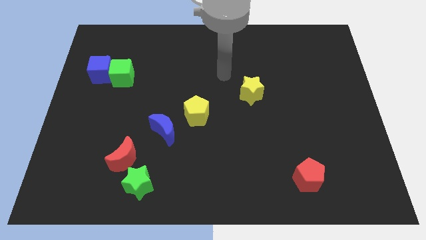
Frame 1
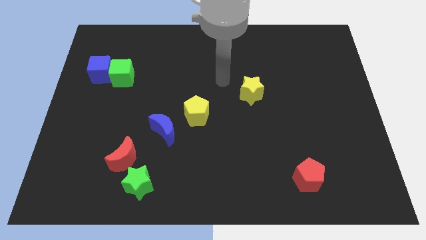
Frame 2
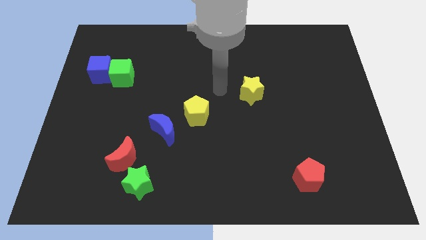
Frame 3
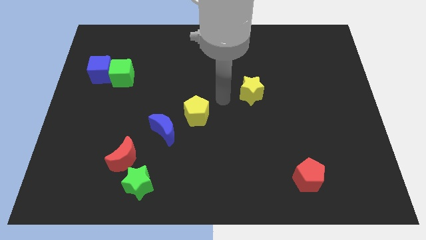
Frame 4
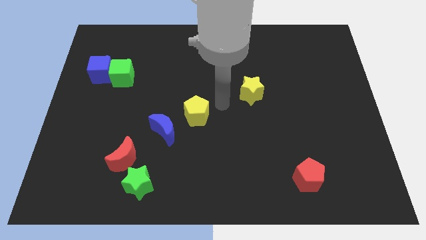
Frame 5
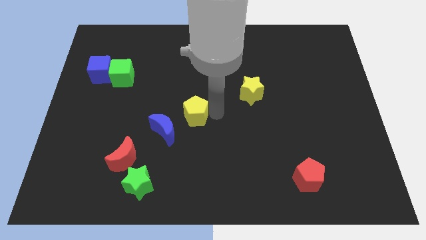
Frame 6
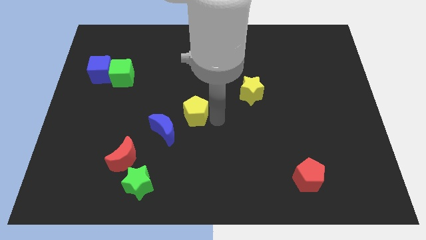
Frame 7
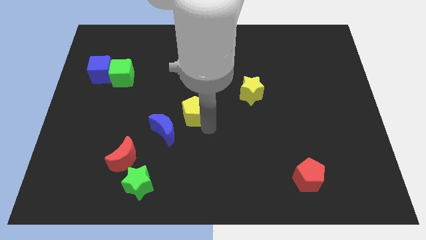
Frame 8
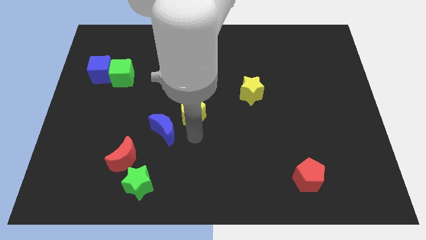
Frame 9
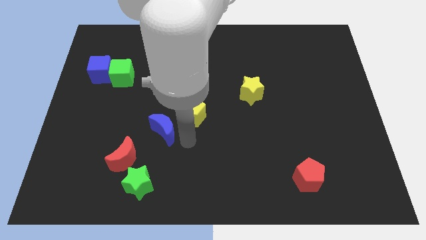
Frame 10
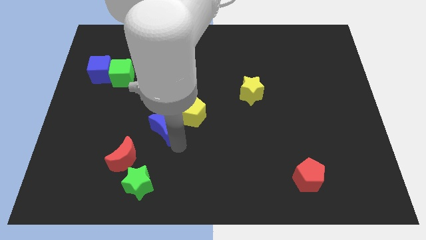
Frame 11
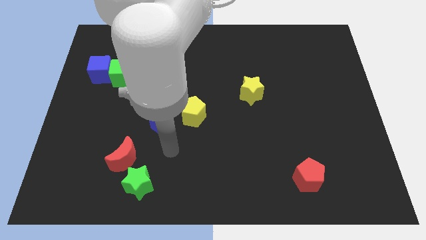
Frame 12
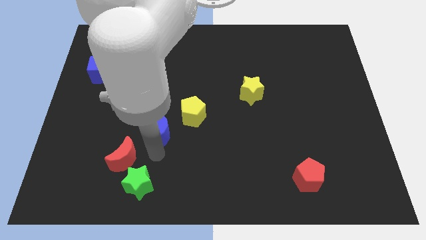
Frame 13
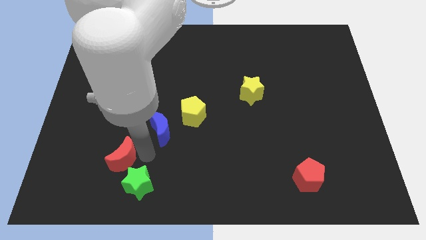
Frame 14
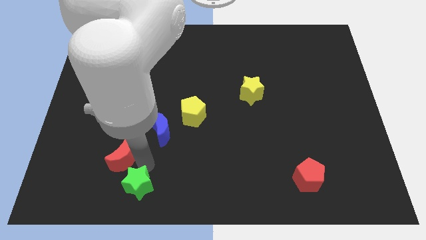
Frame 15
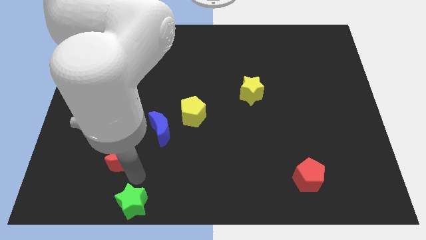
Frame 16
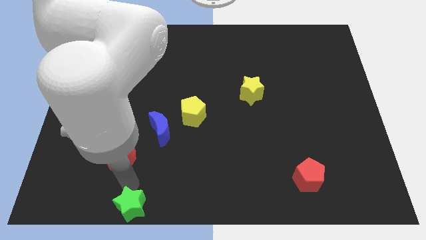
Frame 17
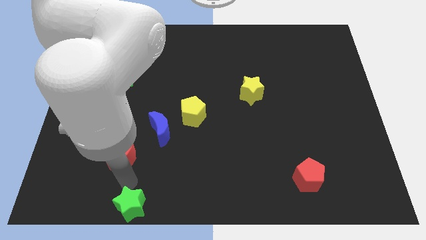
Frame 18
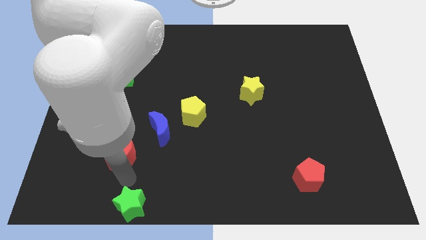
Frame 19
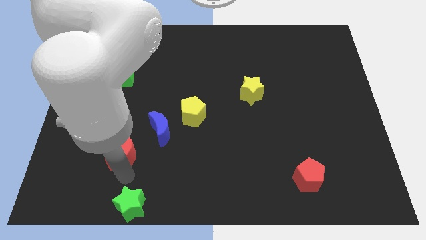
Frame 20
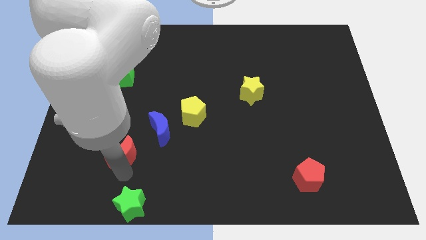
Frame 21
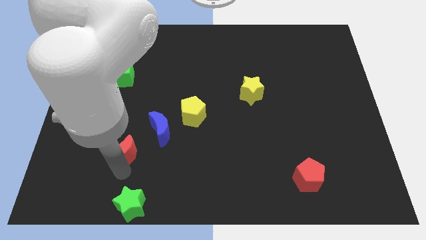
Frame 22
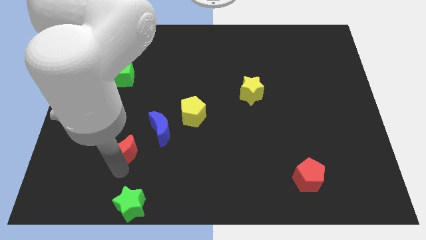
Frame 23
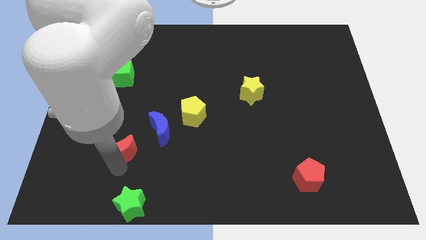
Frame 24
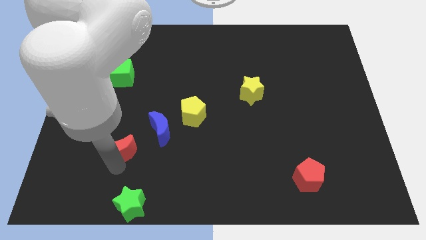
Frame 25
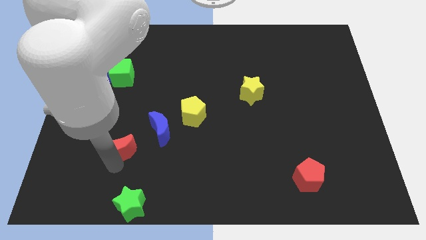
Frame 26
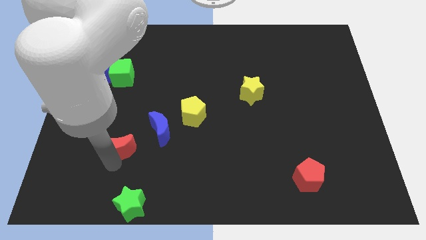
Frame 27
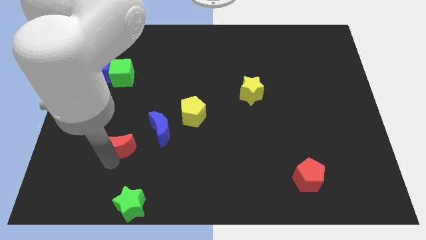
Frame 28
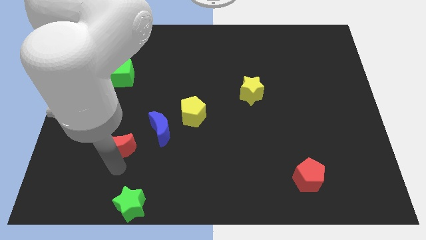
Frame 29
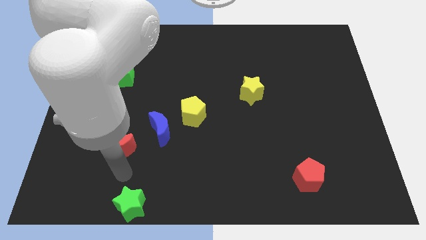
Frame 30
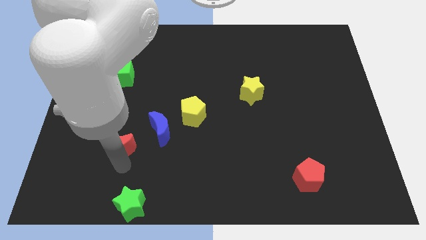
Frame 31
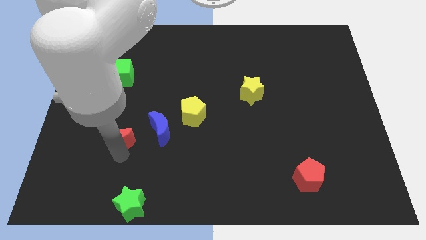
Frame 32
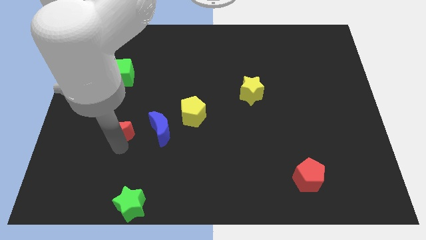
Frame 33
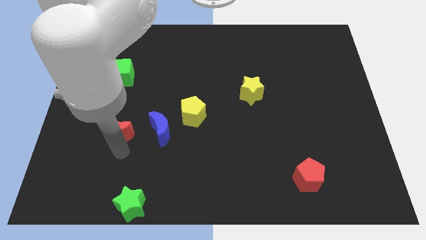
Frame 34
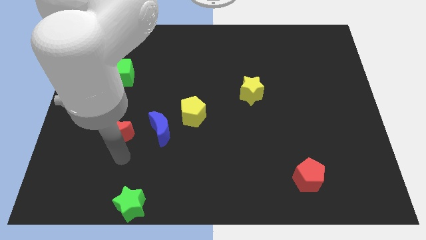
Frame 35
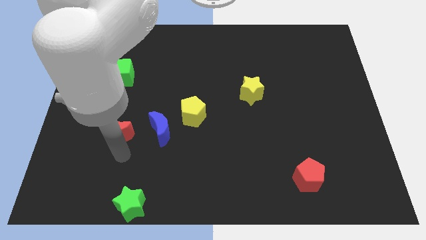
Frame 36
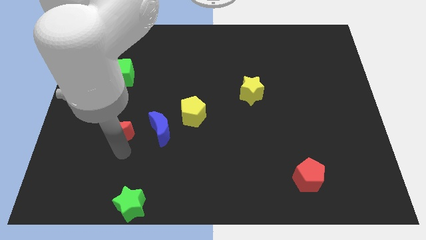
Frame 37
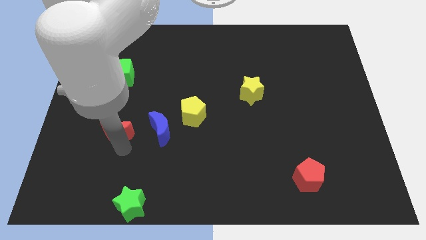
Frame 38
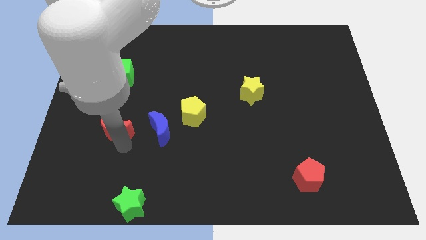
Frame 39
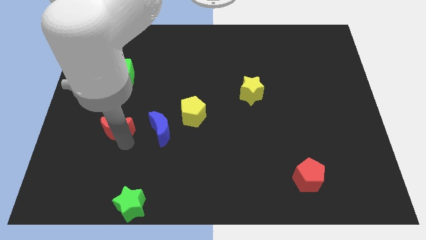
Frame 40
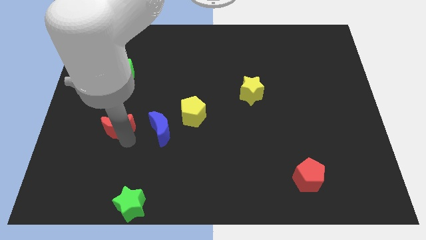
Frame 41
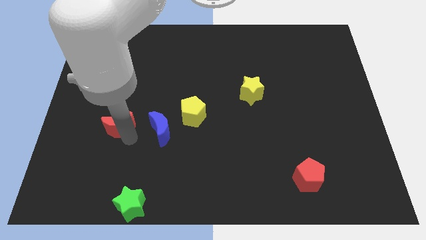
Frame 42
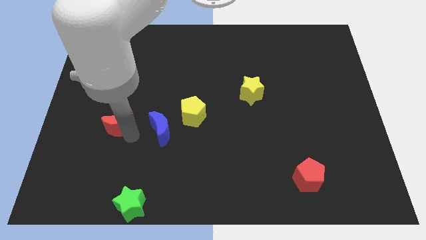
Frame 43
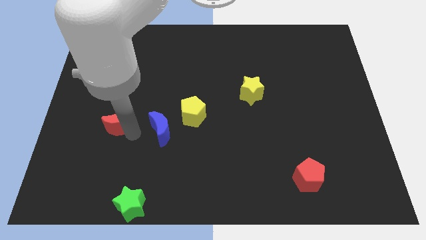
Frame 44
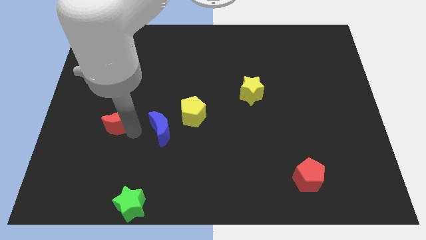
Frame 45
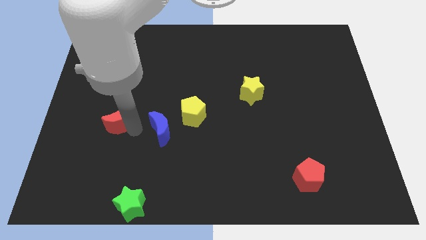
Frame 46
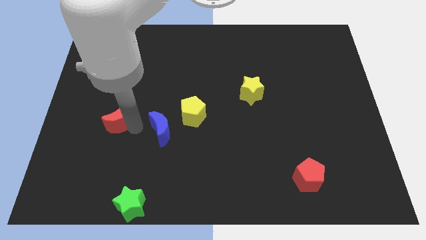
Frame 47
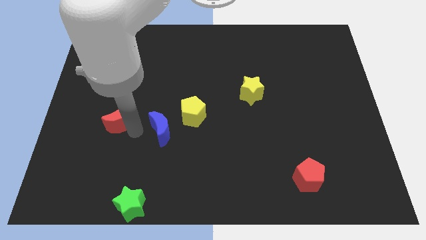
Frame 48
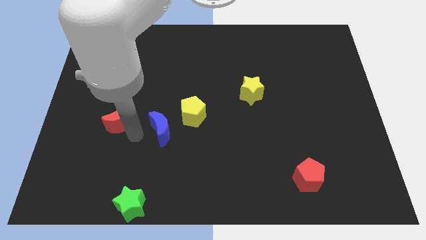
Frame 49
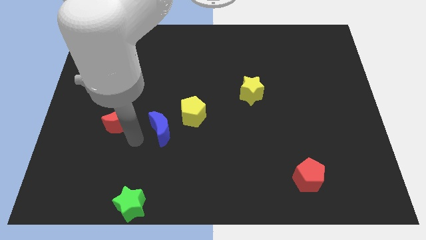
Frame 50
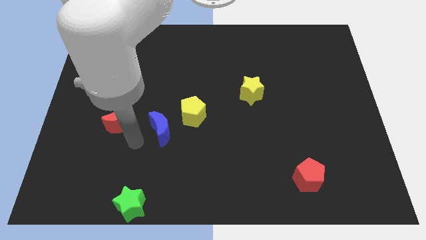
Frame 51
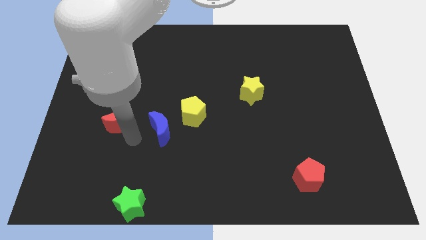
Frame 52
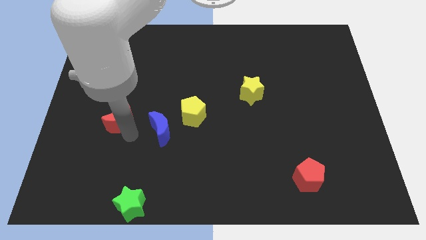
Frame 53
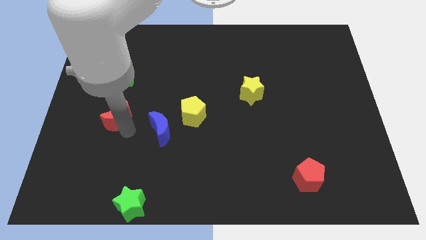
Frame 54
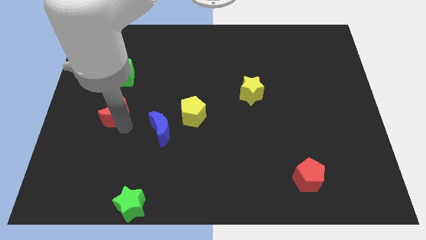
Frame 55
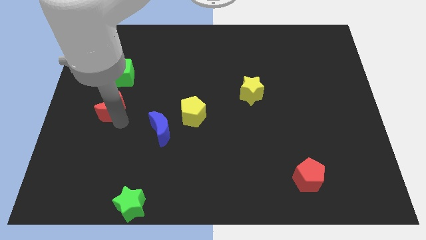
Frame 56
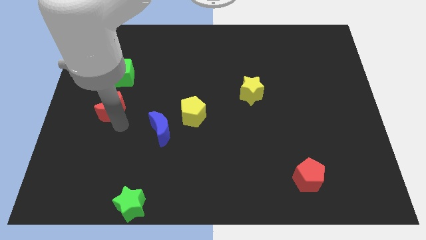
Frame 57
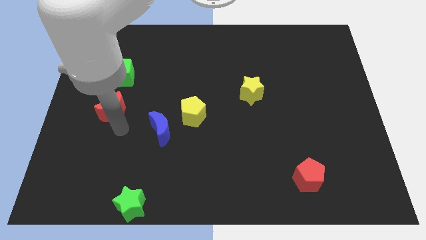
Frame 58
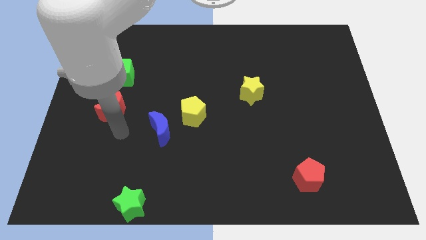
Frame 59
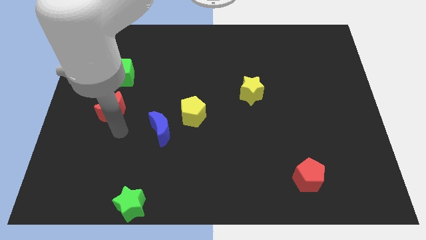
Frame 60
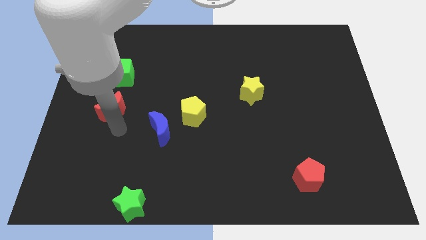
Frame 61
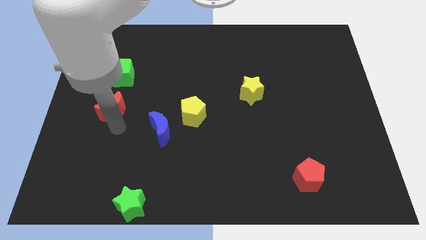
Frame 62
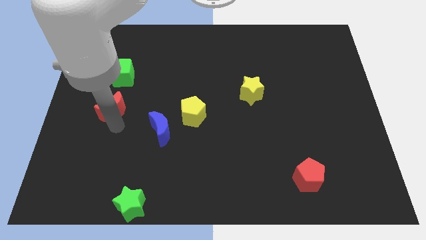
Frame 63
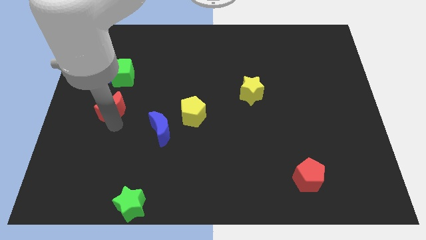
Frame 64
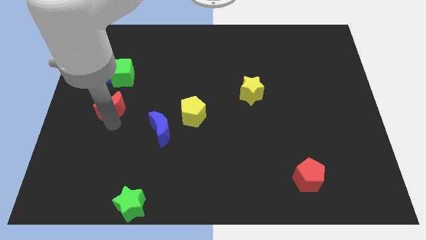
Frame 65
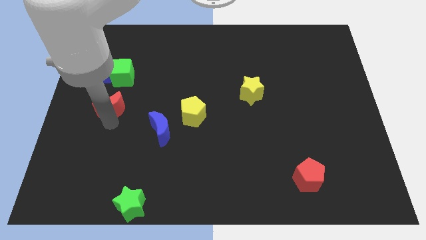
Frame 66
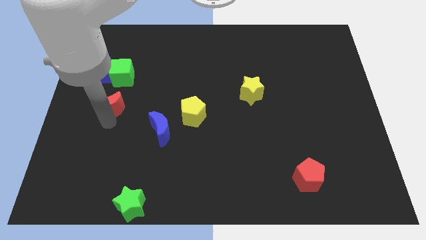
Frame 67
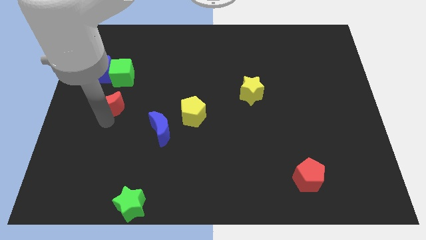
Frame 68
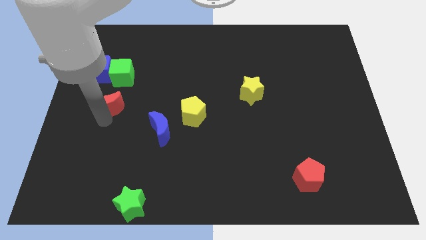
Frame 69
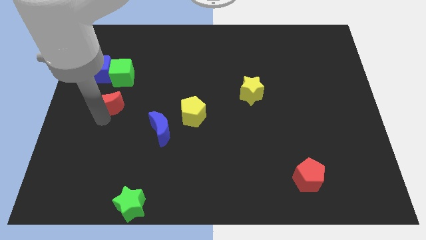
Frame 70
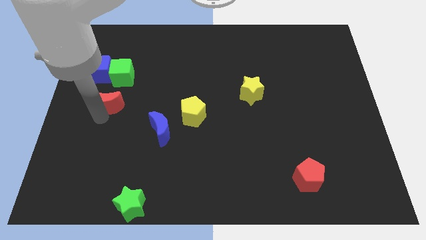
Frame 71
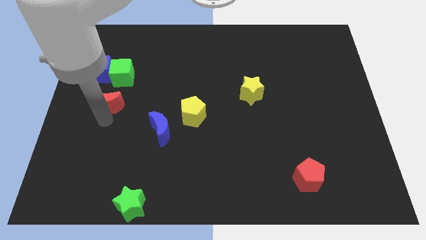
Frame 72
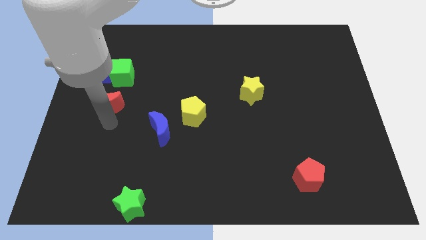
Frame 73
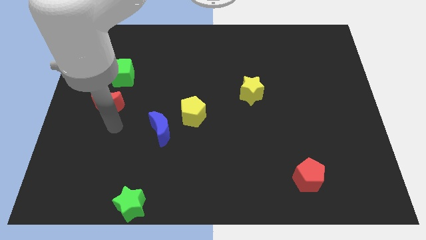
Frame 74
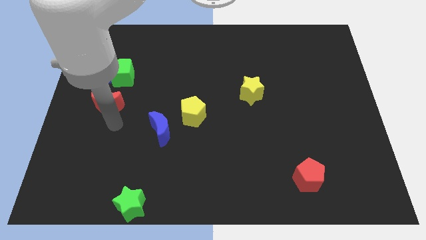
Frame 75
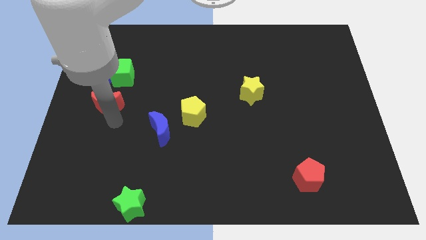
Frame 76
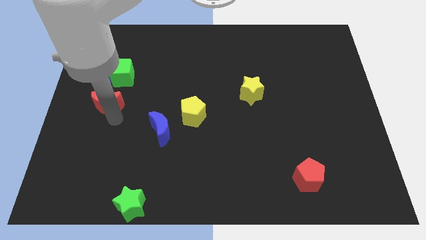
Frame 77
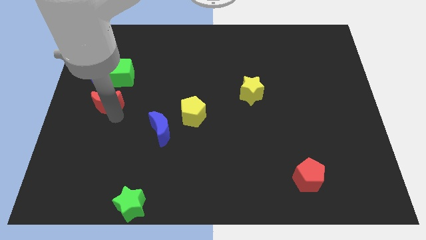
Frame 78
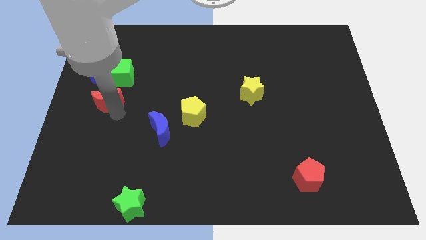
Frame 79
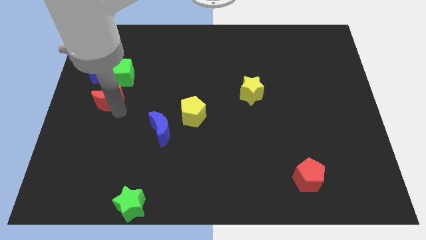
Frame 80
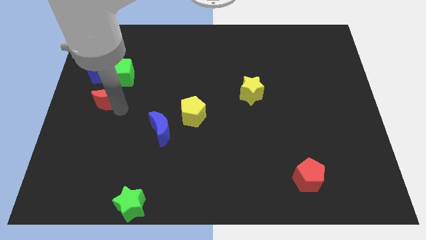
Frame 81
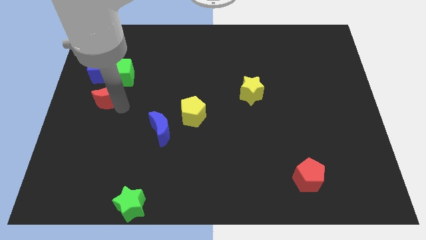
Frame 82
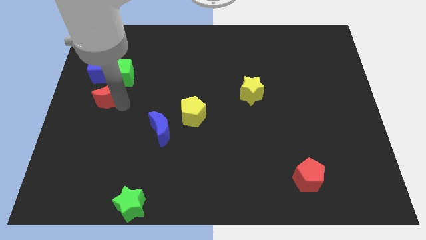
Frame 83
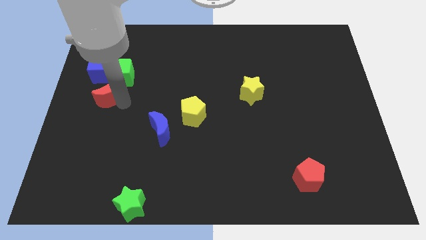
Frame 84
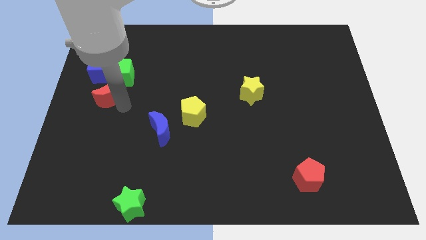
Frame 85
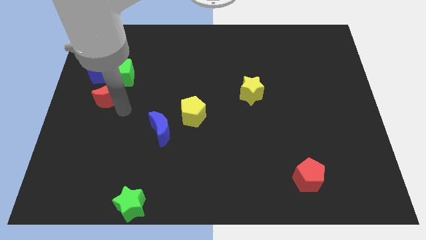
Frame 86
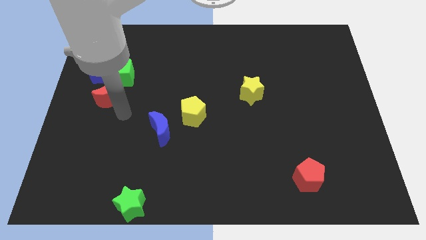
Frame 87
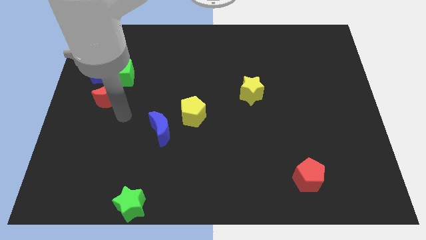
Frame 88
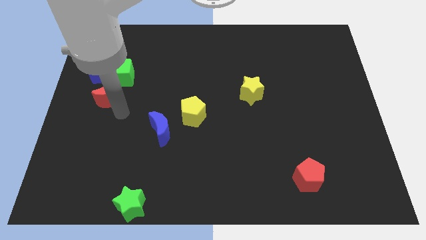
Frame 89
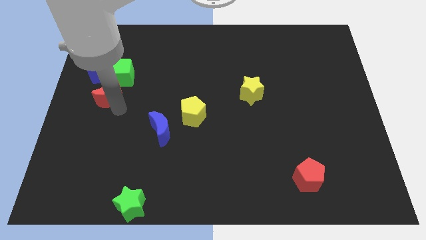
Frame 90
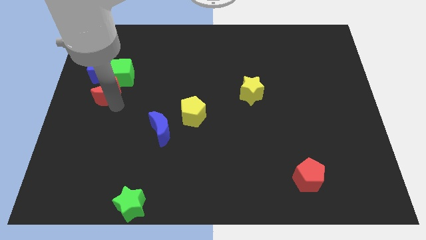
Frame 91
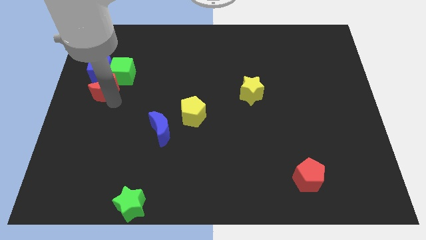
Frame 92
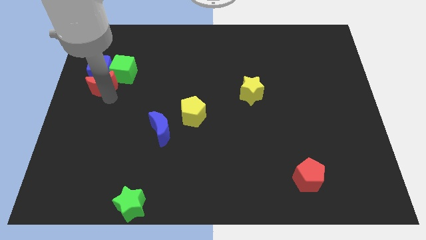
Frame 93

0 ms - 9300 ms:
push the red moon close to the blue cube
